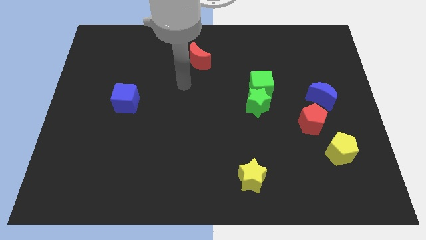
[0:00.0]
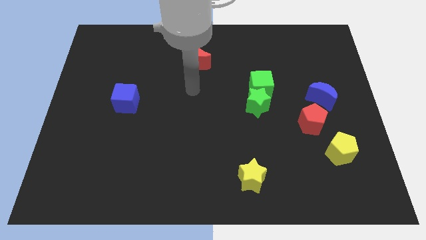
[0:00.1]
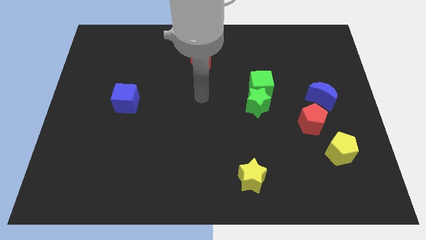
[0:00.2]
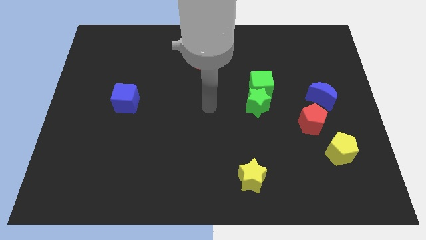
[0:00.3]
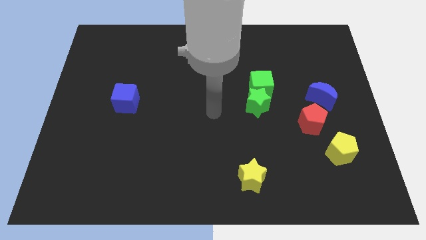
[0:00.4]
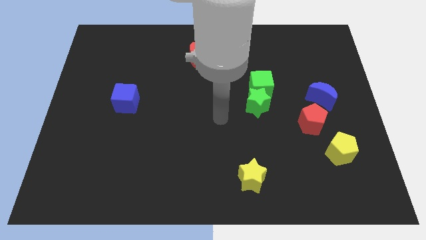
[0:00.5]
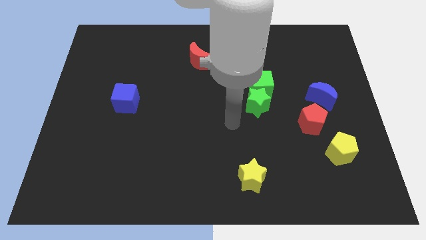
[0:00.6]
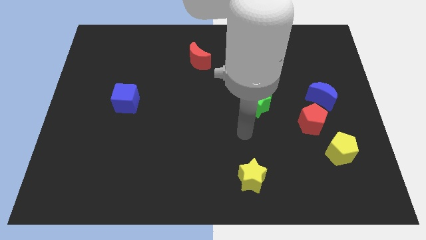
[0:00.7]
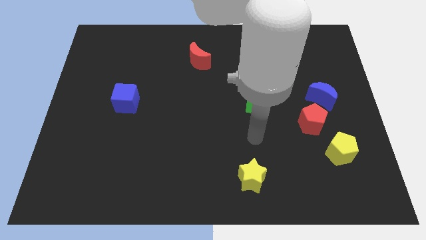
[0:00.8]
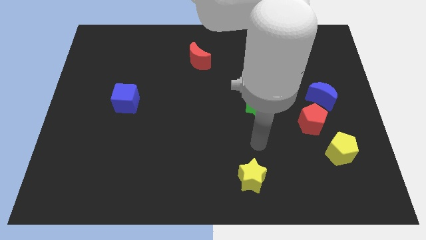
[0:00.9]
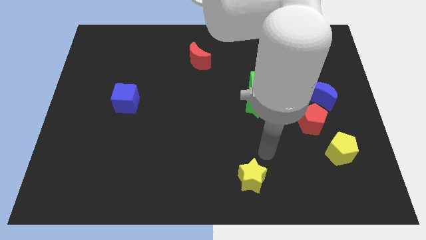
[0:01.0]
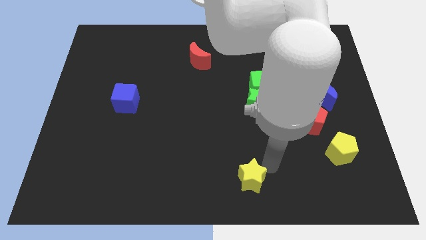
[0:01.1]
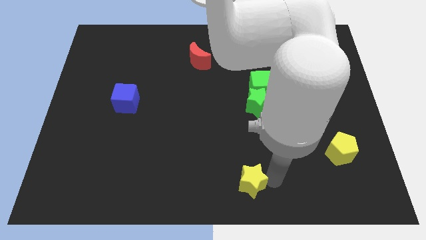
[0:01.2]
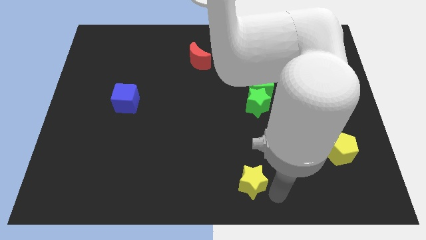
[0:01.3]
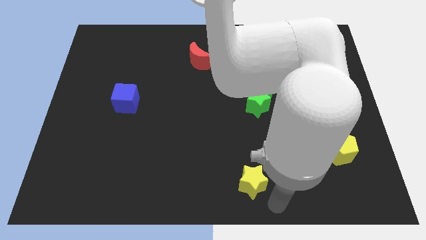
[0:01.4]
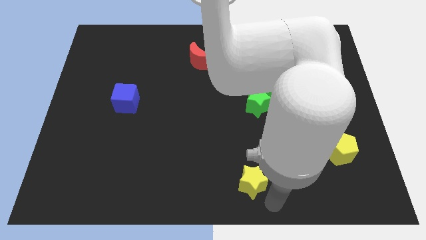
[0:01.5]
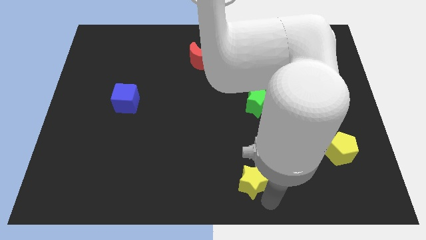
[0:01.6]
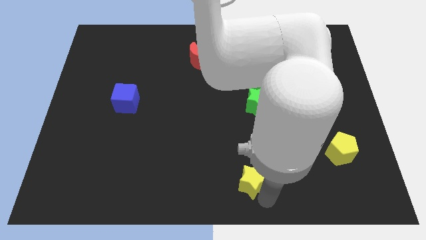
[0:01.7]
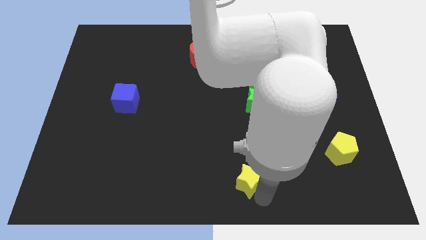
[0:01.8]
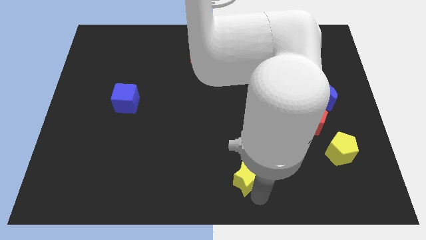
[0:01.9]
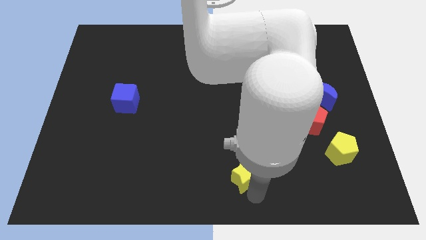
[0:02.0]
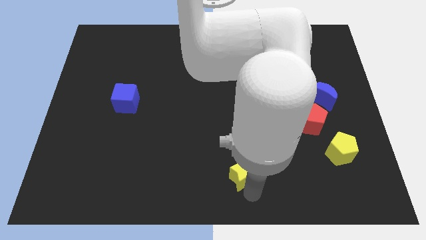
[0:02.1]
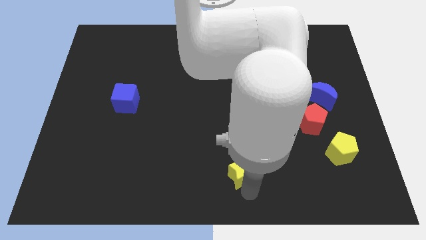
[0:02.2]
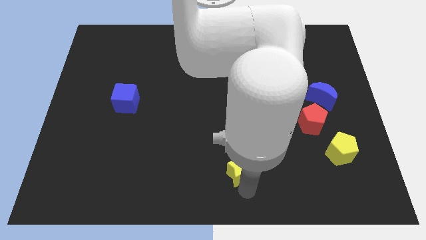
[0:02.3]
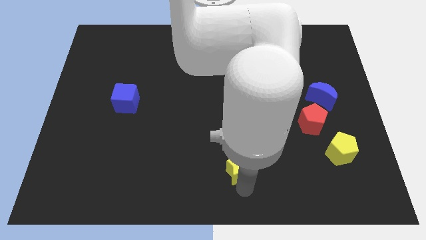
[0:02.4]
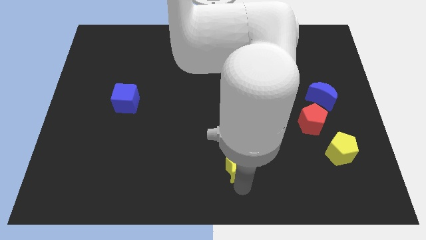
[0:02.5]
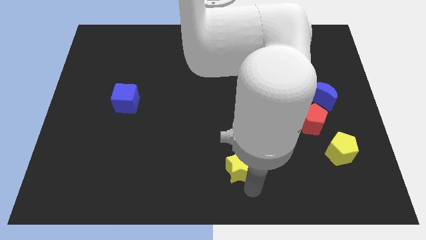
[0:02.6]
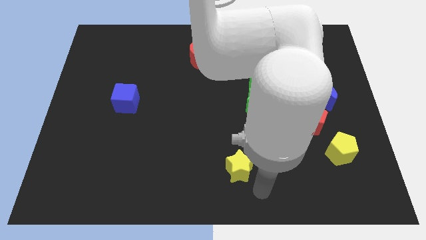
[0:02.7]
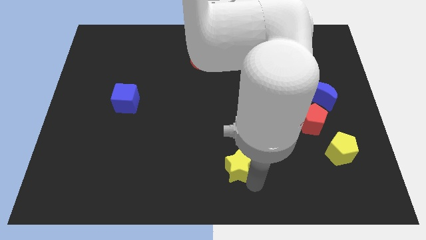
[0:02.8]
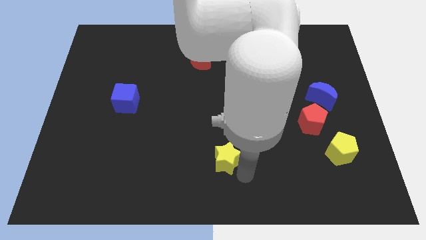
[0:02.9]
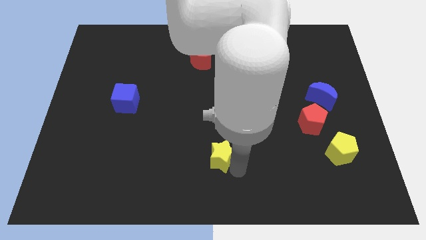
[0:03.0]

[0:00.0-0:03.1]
slightly slide the yellow star diagonally up and left

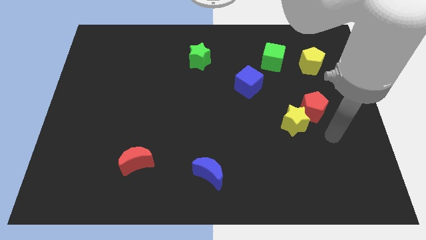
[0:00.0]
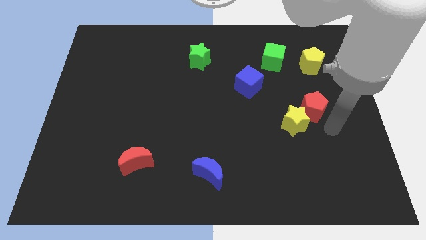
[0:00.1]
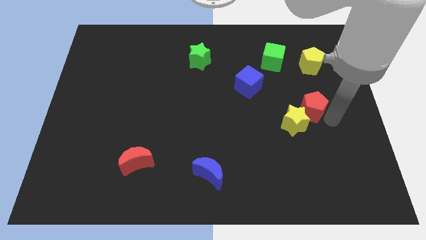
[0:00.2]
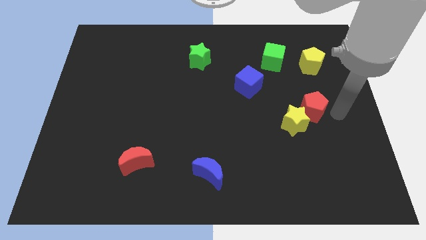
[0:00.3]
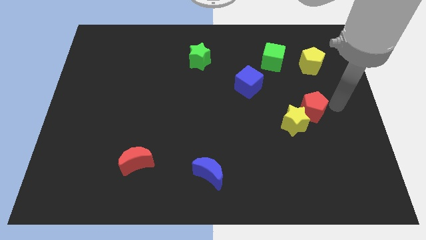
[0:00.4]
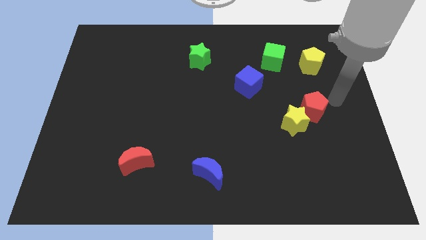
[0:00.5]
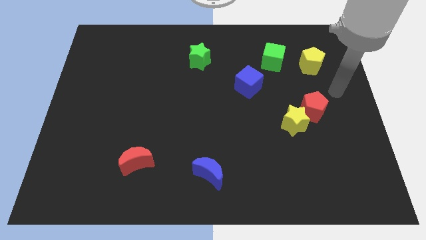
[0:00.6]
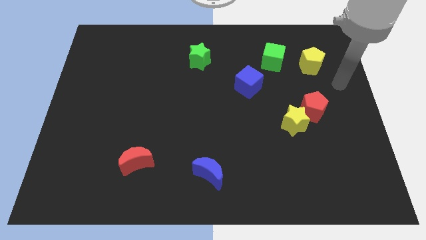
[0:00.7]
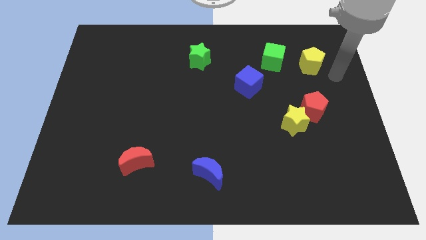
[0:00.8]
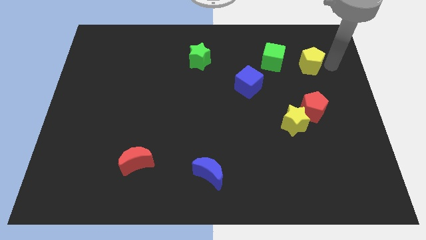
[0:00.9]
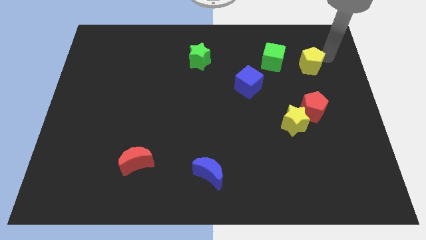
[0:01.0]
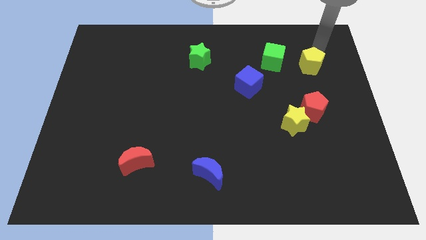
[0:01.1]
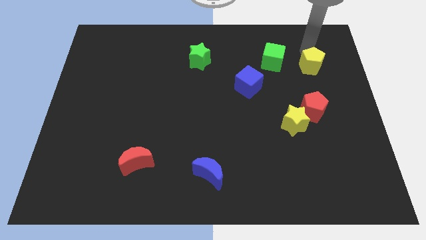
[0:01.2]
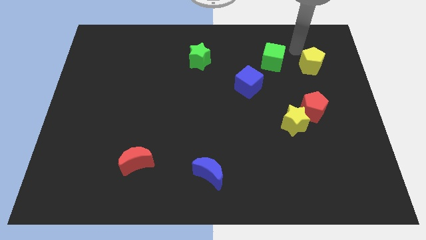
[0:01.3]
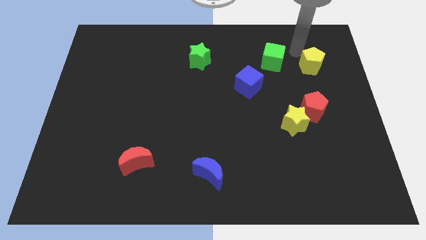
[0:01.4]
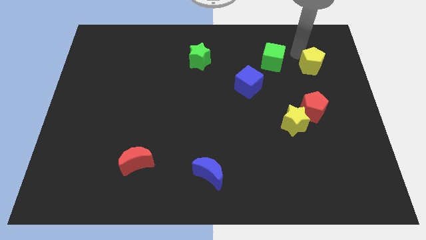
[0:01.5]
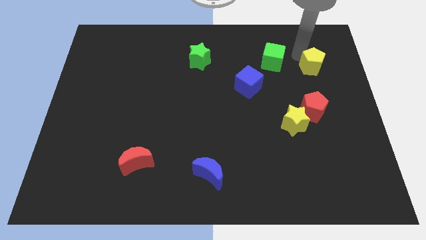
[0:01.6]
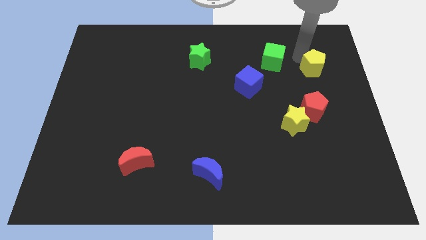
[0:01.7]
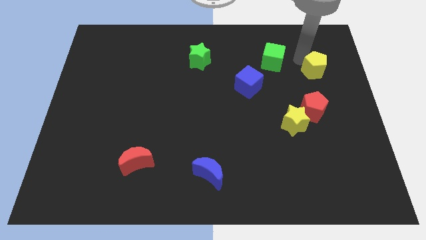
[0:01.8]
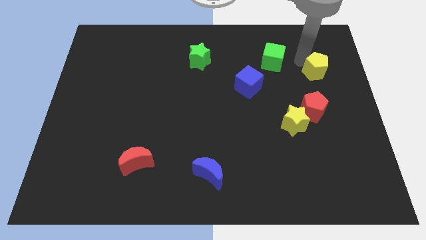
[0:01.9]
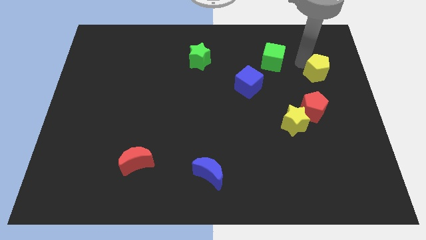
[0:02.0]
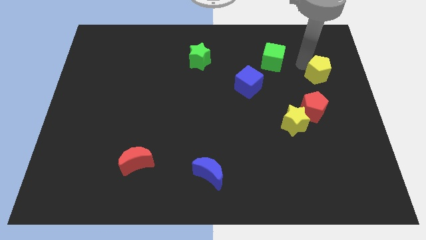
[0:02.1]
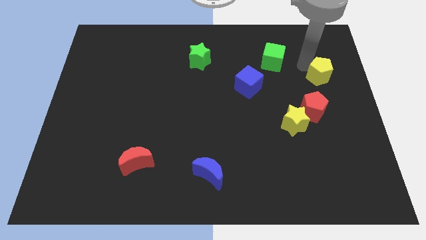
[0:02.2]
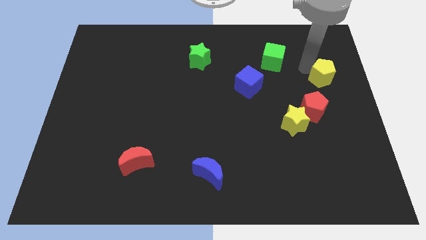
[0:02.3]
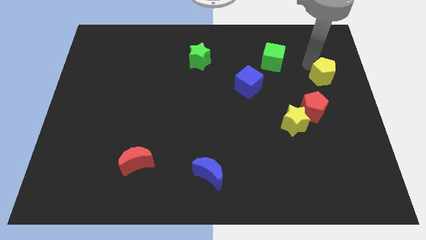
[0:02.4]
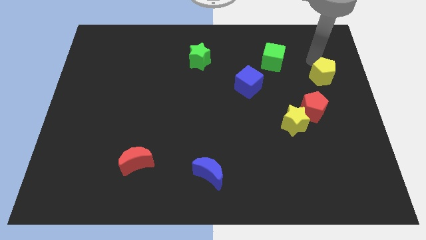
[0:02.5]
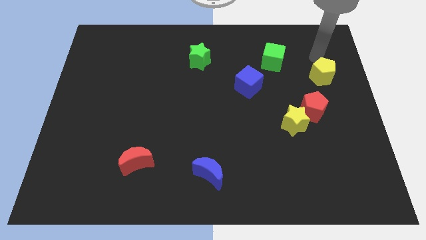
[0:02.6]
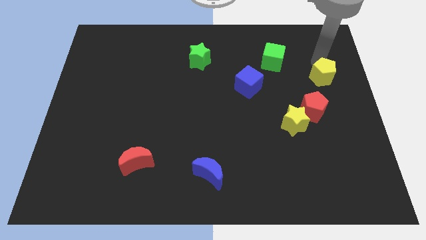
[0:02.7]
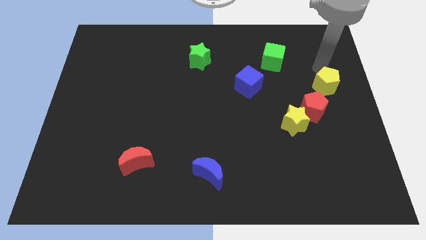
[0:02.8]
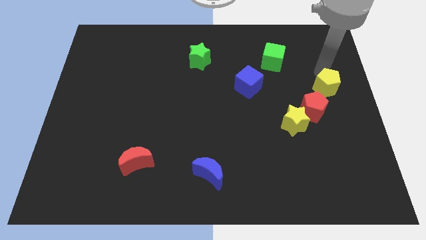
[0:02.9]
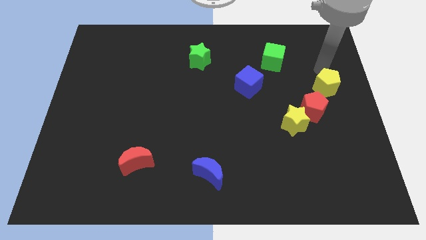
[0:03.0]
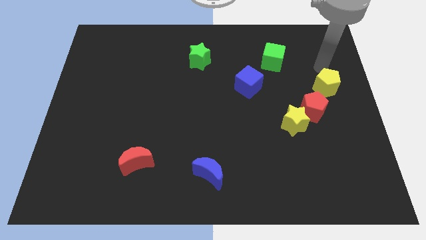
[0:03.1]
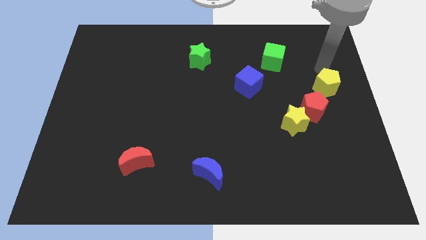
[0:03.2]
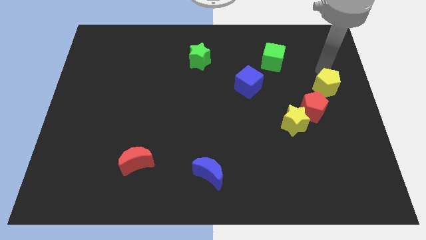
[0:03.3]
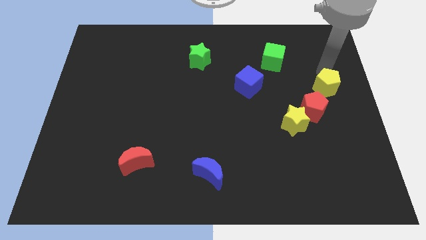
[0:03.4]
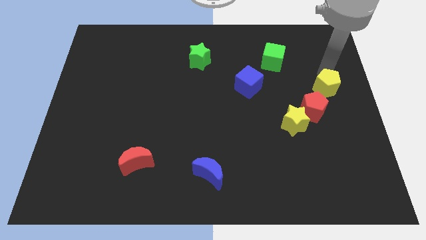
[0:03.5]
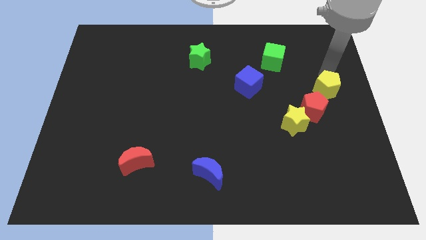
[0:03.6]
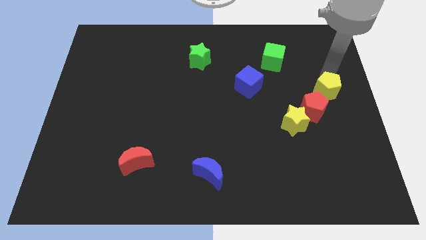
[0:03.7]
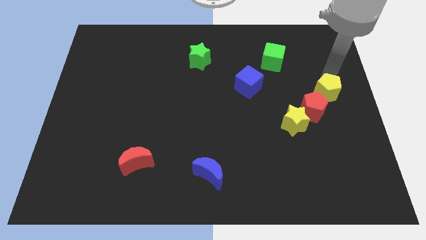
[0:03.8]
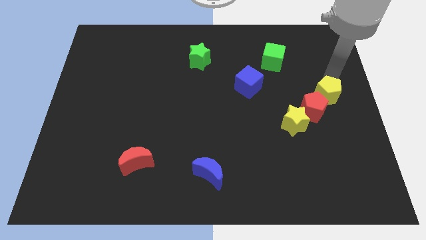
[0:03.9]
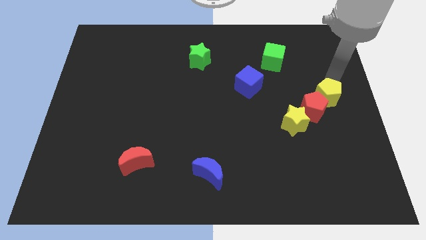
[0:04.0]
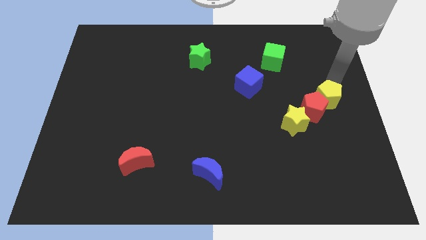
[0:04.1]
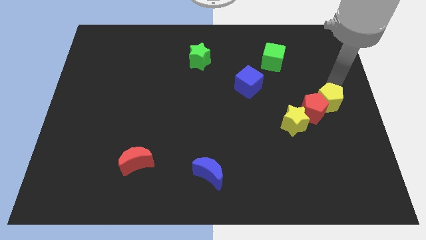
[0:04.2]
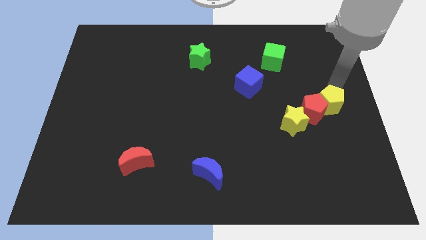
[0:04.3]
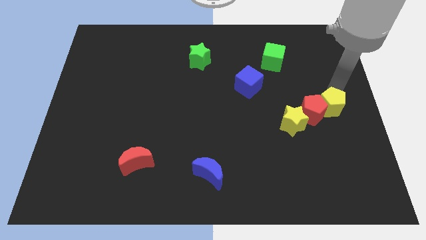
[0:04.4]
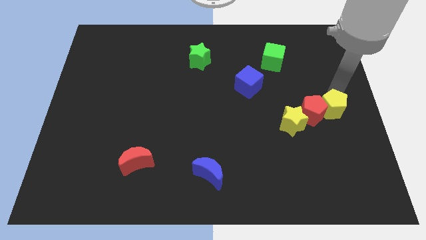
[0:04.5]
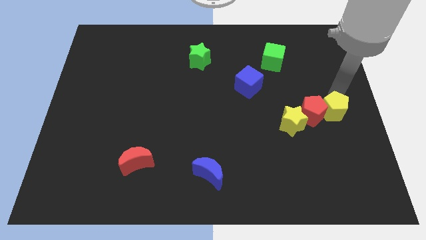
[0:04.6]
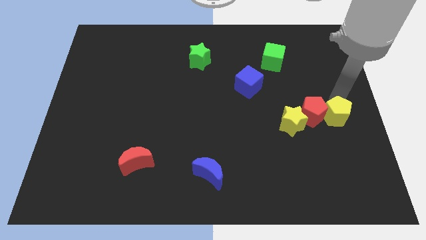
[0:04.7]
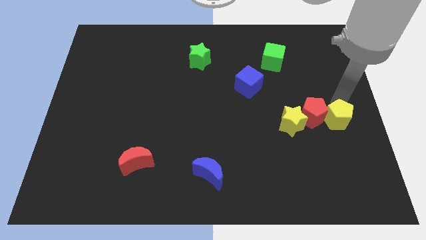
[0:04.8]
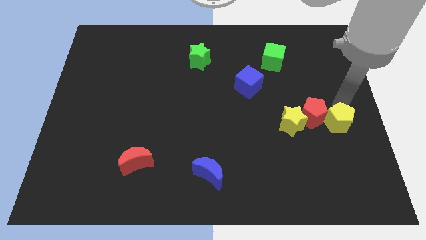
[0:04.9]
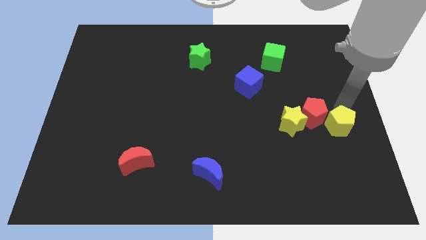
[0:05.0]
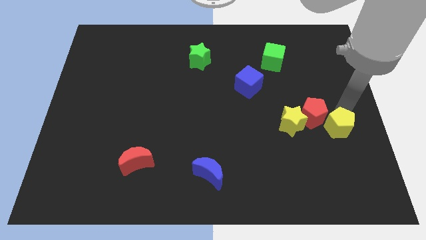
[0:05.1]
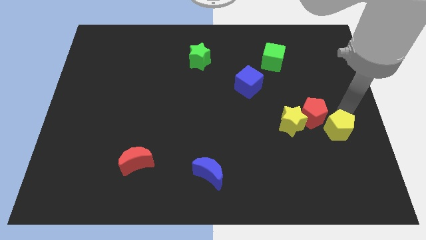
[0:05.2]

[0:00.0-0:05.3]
move the yellow pentagon down
